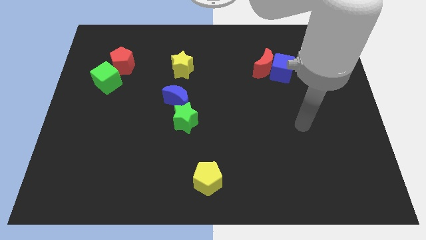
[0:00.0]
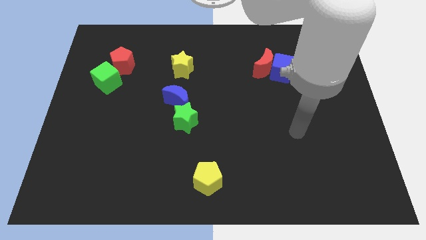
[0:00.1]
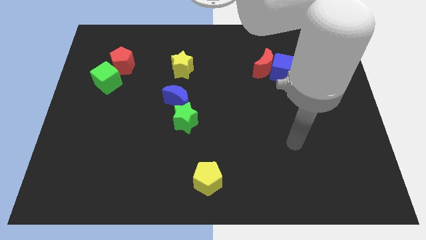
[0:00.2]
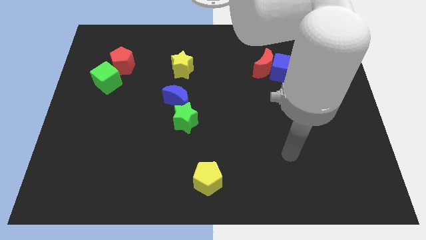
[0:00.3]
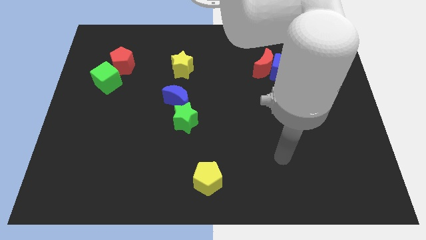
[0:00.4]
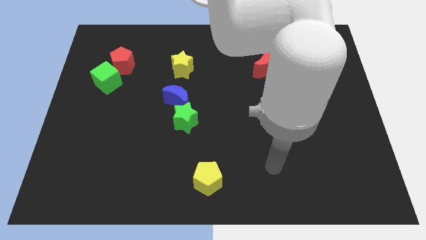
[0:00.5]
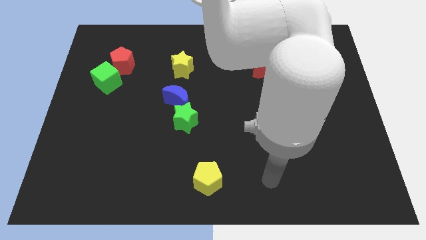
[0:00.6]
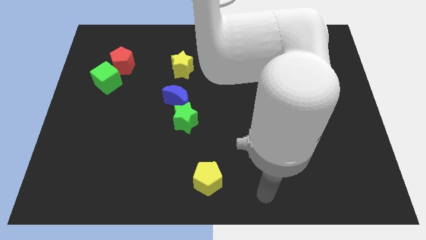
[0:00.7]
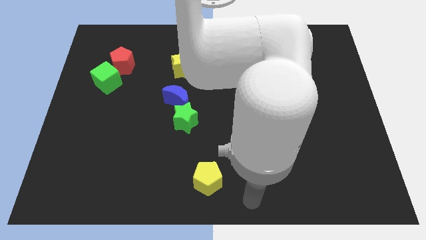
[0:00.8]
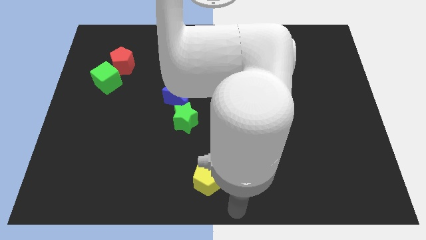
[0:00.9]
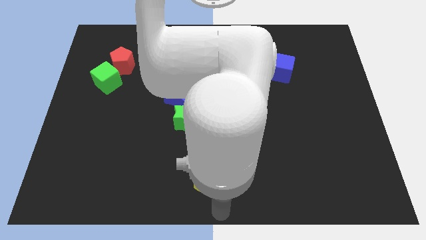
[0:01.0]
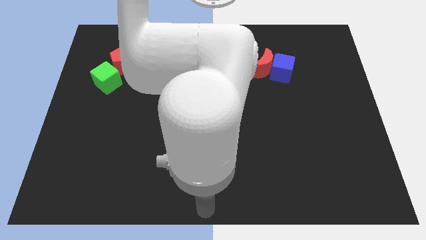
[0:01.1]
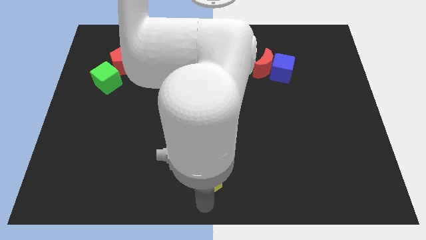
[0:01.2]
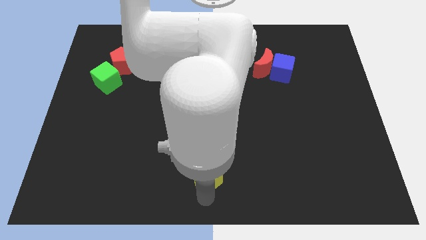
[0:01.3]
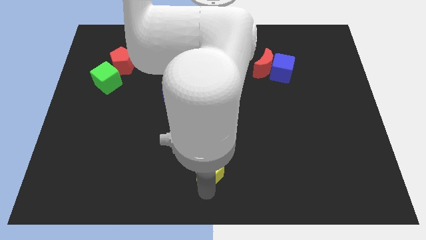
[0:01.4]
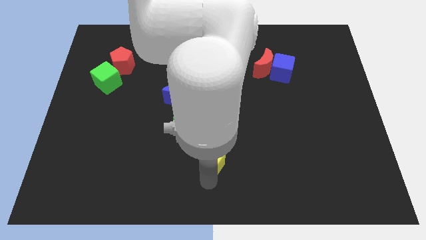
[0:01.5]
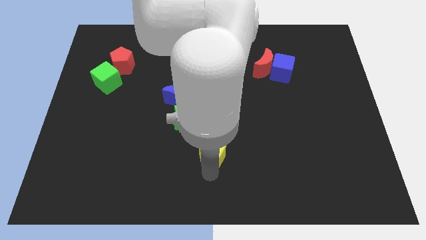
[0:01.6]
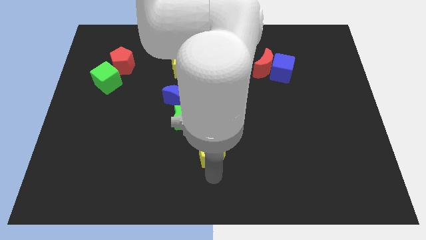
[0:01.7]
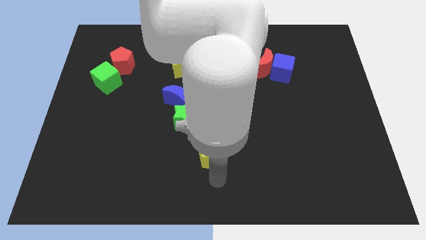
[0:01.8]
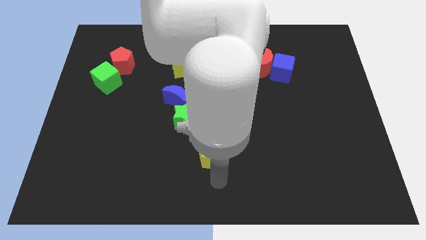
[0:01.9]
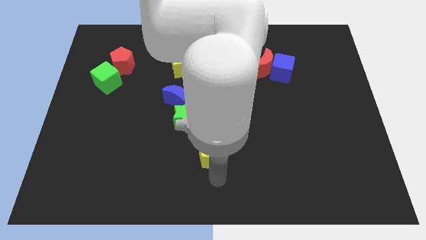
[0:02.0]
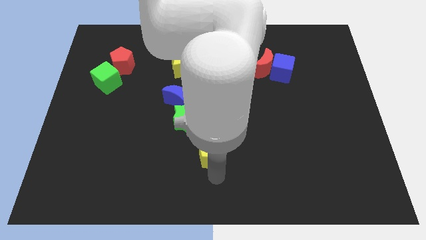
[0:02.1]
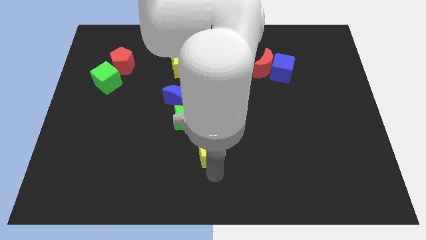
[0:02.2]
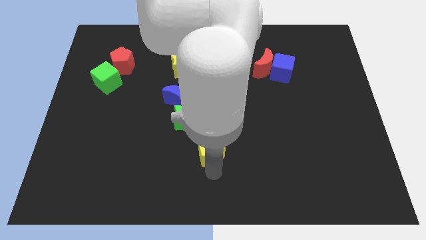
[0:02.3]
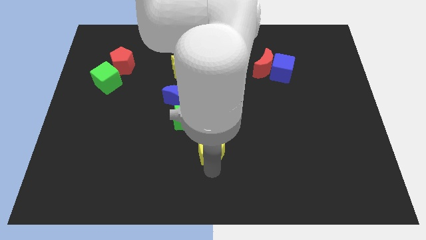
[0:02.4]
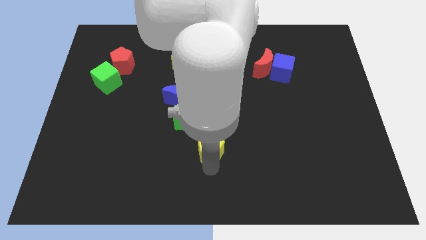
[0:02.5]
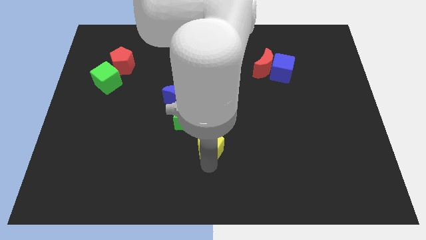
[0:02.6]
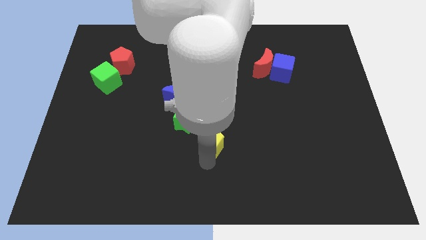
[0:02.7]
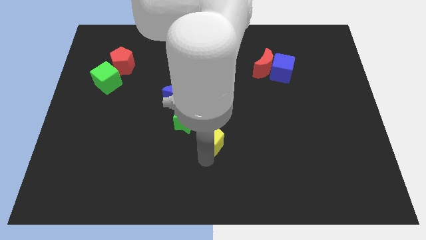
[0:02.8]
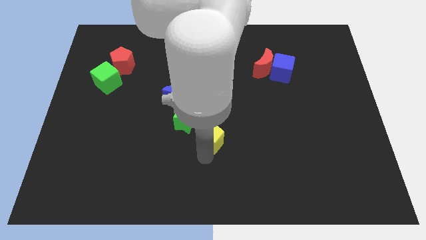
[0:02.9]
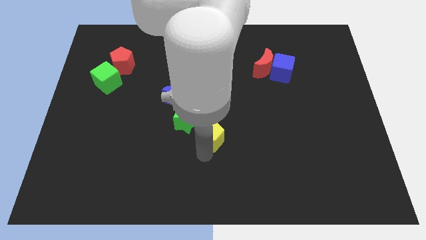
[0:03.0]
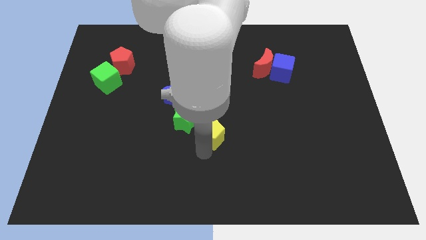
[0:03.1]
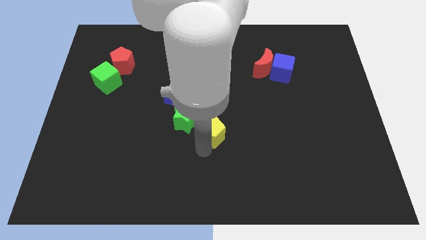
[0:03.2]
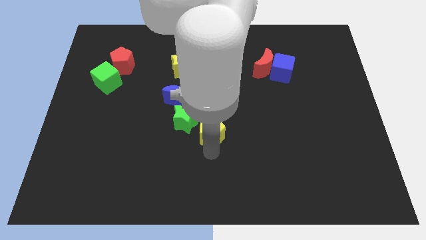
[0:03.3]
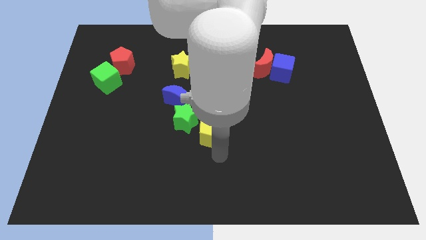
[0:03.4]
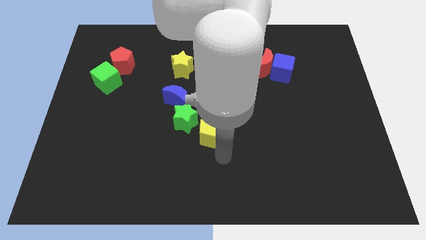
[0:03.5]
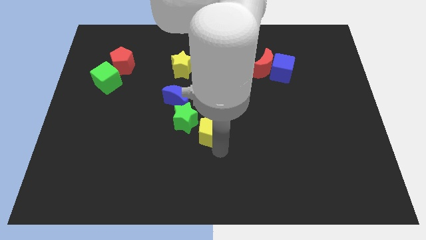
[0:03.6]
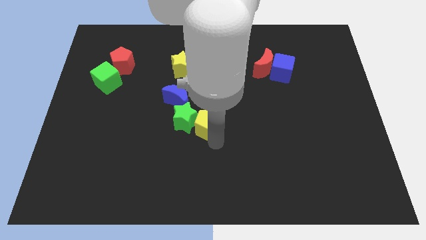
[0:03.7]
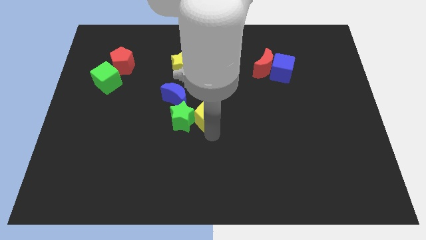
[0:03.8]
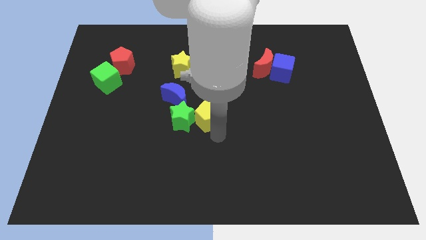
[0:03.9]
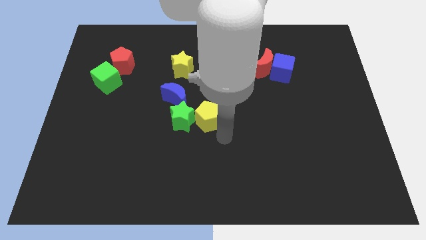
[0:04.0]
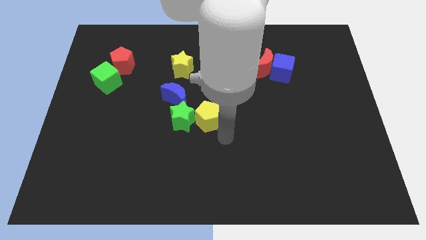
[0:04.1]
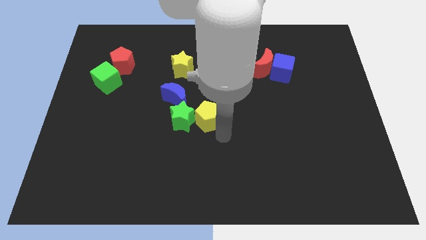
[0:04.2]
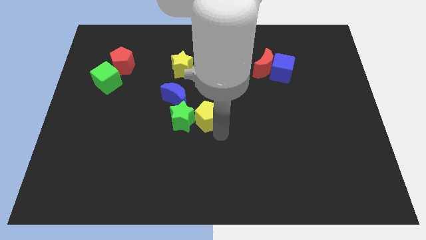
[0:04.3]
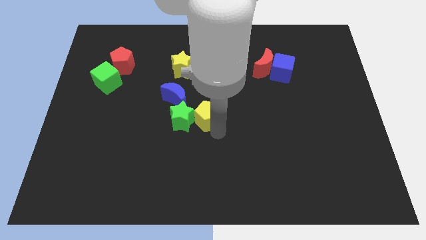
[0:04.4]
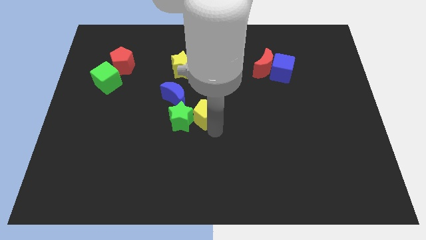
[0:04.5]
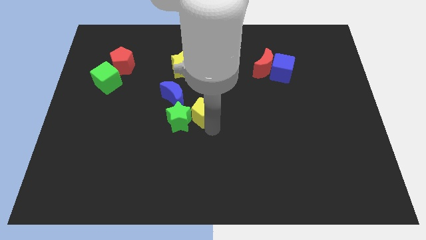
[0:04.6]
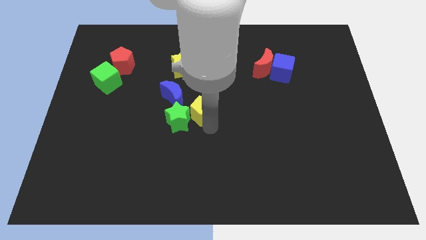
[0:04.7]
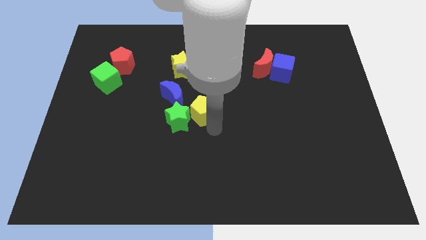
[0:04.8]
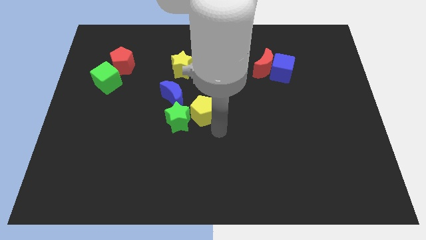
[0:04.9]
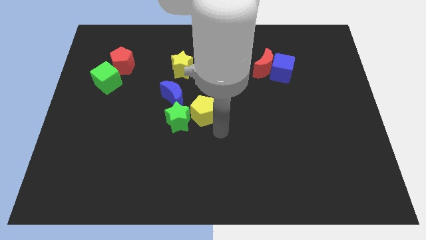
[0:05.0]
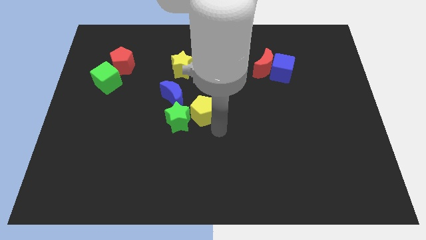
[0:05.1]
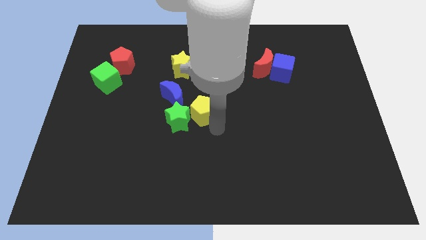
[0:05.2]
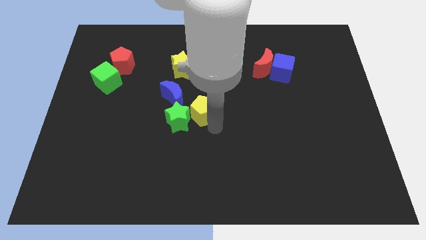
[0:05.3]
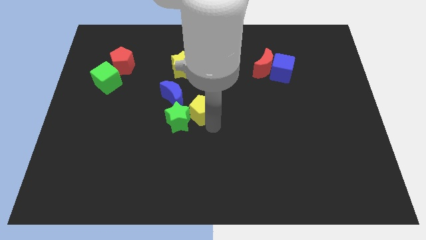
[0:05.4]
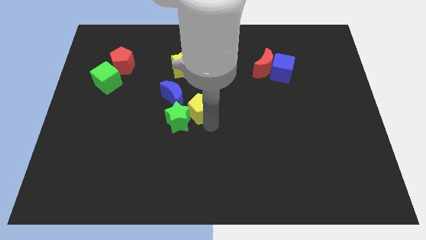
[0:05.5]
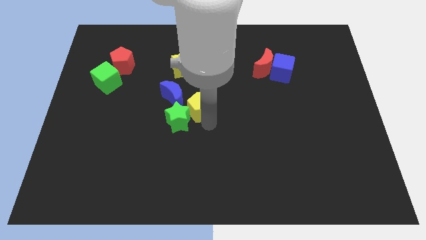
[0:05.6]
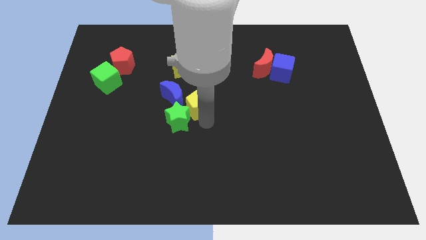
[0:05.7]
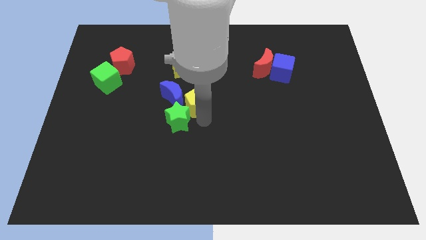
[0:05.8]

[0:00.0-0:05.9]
move the yellow pentagon next to the blue moon

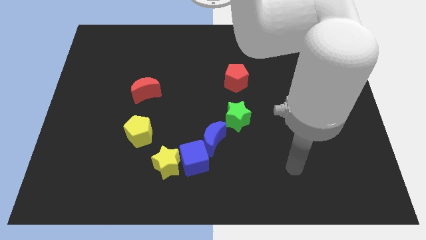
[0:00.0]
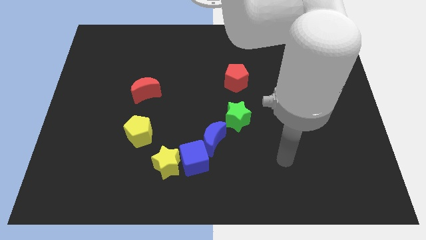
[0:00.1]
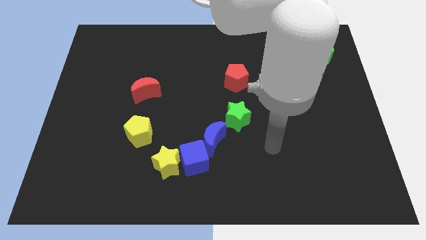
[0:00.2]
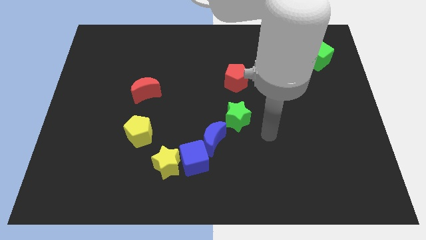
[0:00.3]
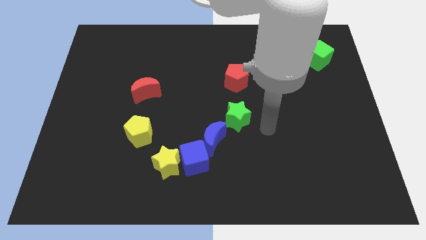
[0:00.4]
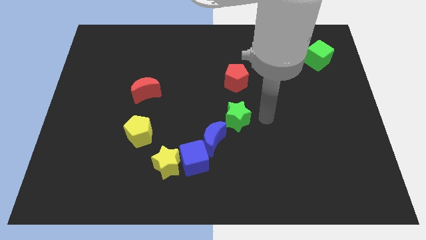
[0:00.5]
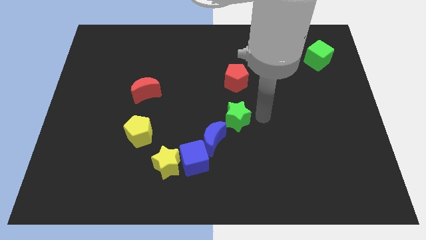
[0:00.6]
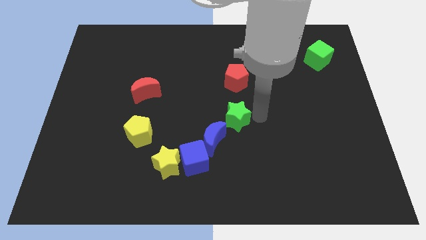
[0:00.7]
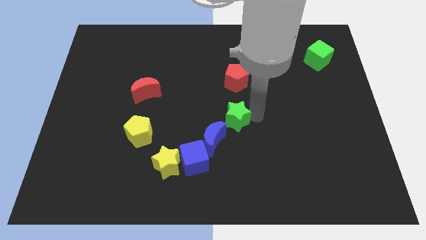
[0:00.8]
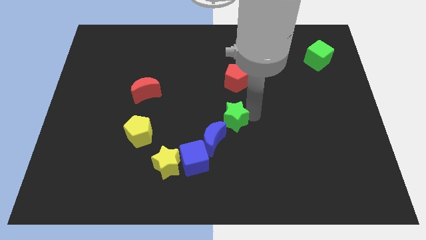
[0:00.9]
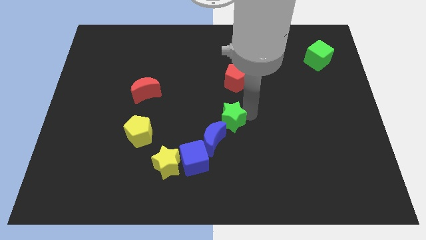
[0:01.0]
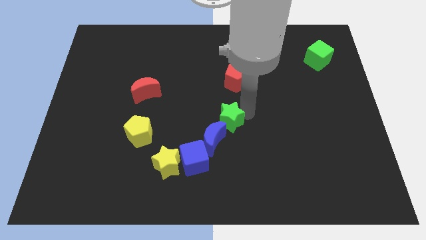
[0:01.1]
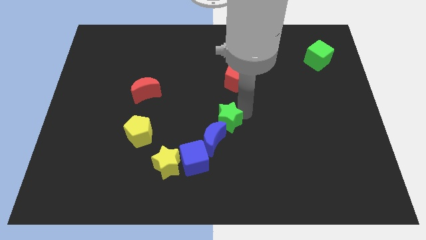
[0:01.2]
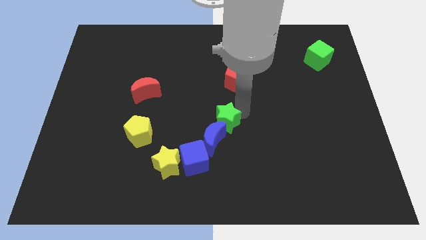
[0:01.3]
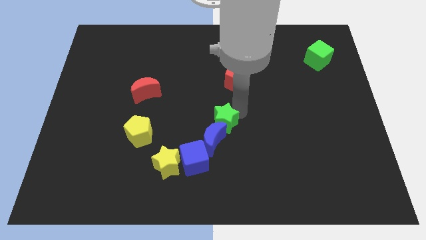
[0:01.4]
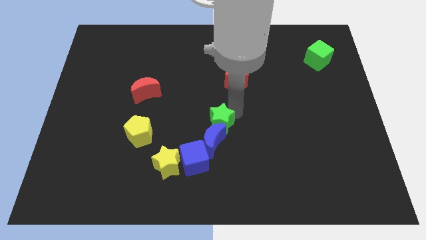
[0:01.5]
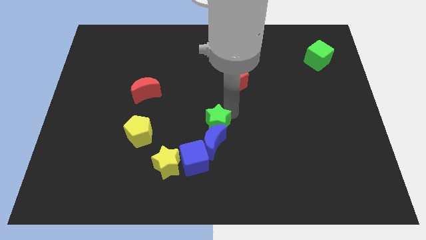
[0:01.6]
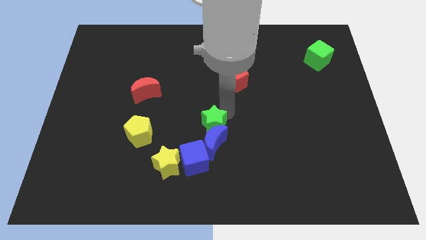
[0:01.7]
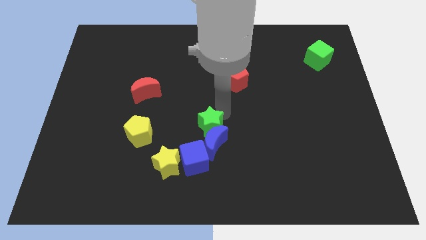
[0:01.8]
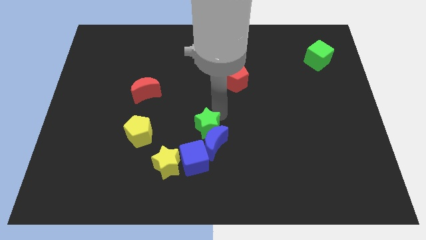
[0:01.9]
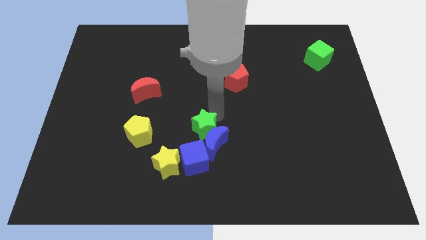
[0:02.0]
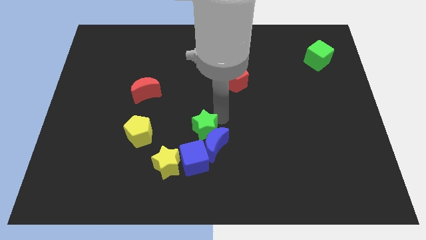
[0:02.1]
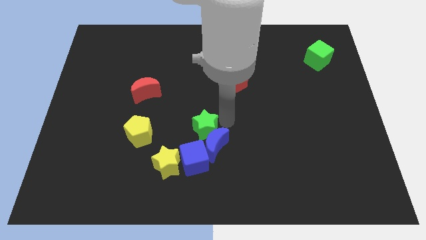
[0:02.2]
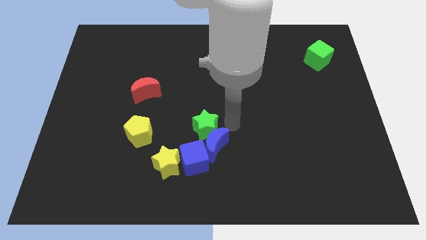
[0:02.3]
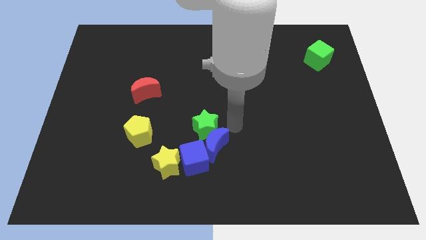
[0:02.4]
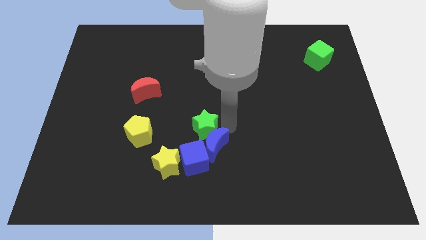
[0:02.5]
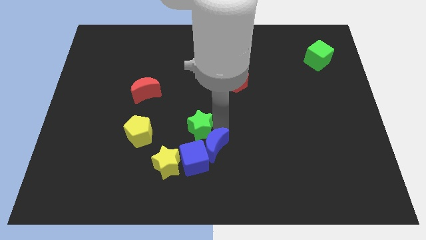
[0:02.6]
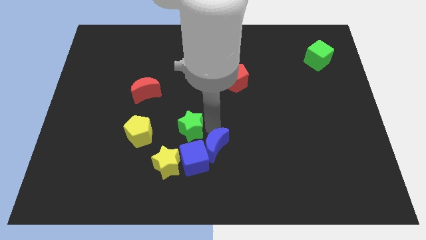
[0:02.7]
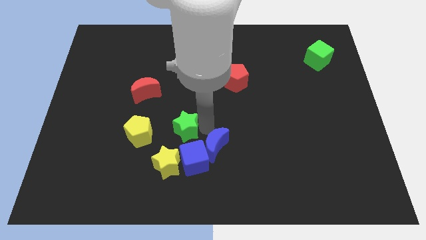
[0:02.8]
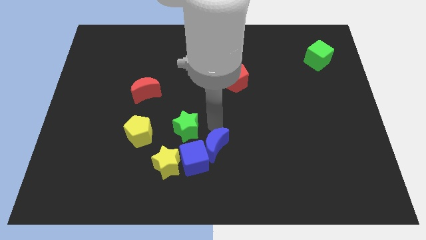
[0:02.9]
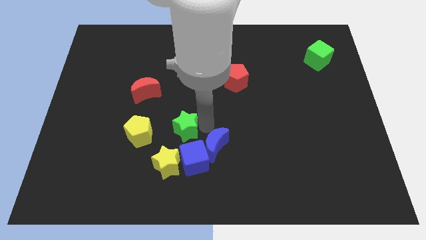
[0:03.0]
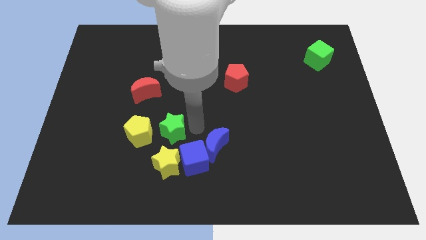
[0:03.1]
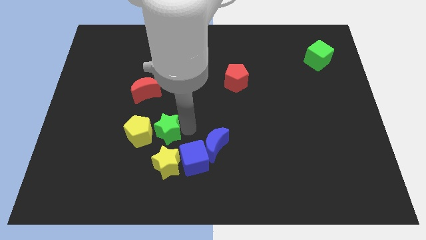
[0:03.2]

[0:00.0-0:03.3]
slide the green star next to the yellow pentagon
